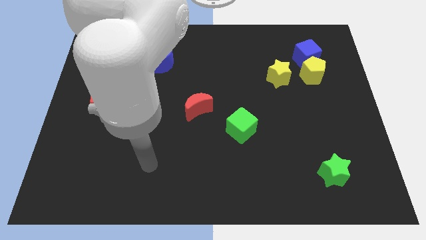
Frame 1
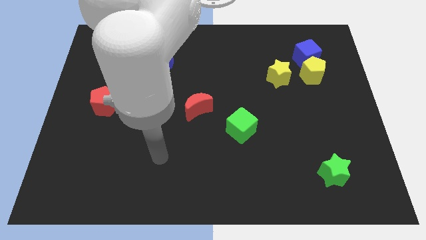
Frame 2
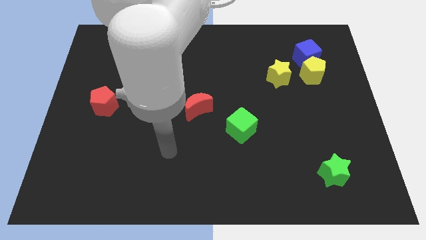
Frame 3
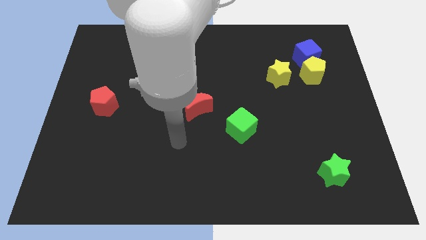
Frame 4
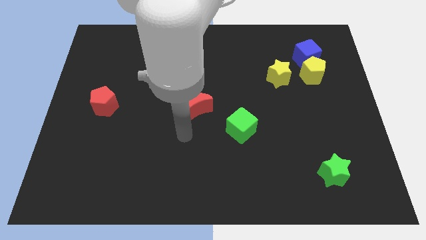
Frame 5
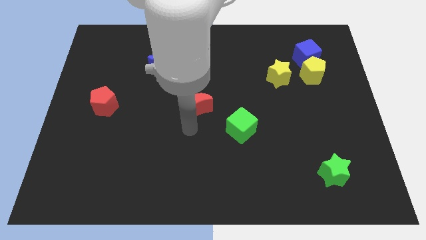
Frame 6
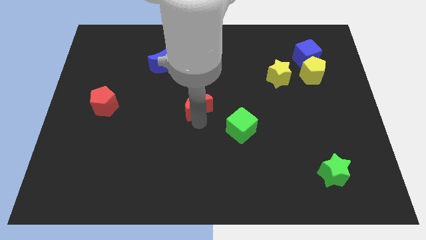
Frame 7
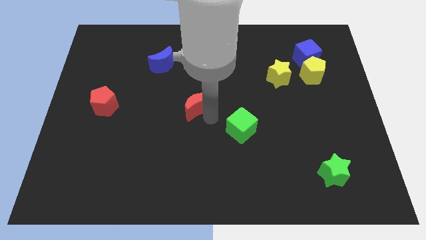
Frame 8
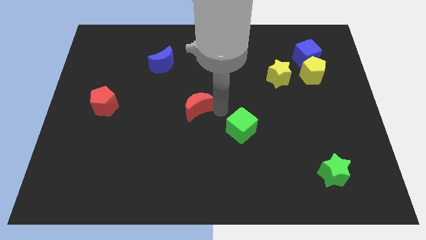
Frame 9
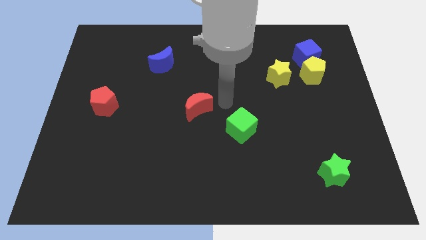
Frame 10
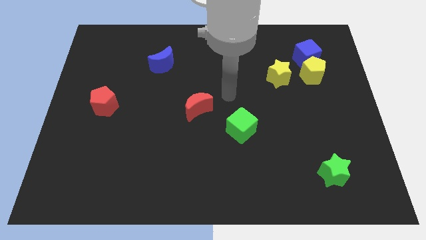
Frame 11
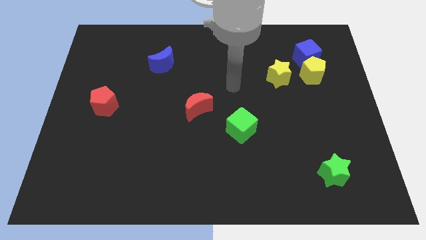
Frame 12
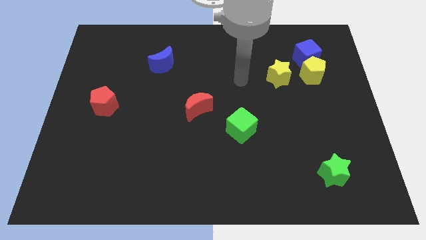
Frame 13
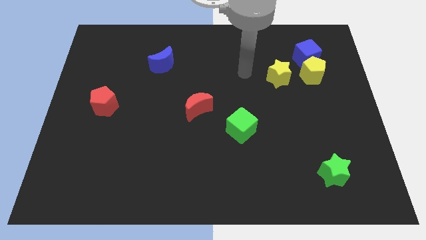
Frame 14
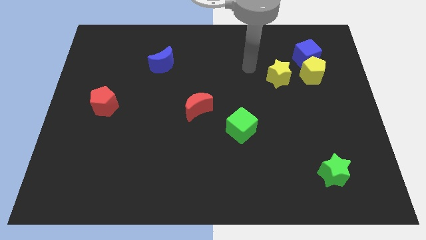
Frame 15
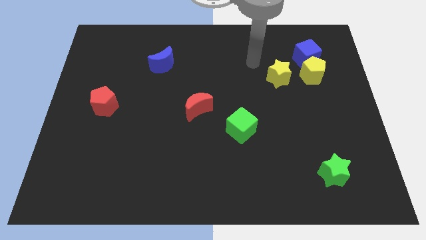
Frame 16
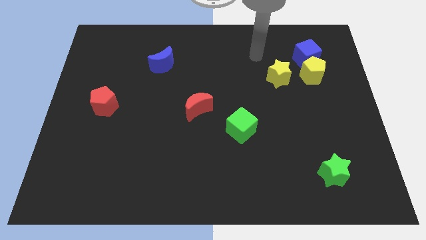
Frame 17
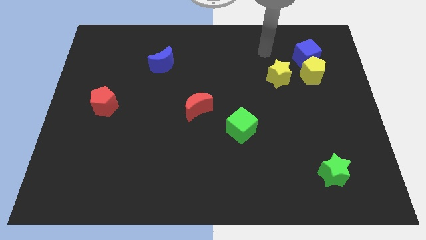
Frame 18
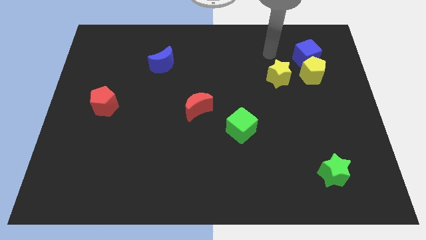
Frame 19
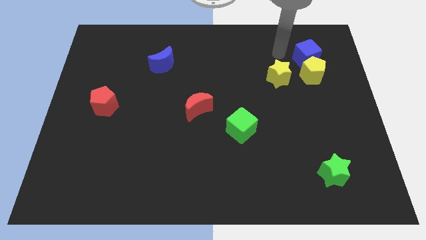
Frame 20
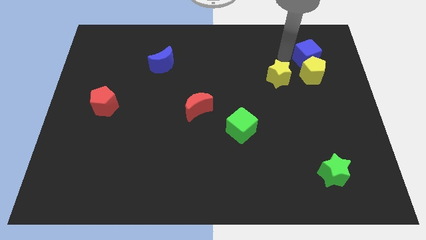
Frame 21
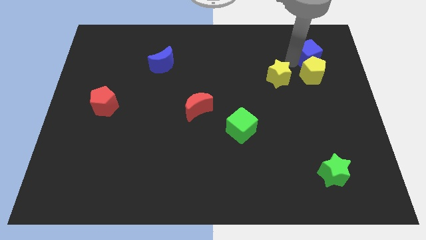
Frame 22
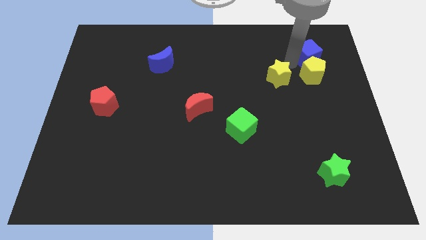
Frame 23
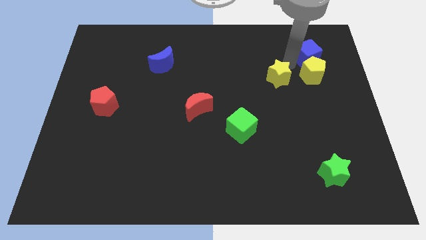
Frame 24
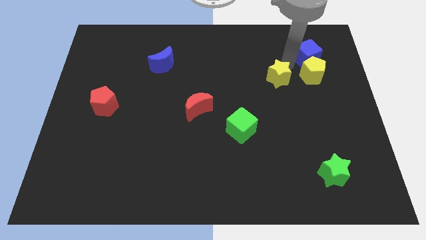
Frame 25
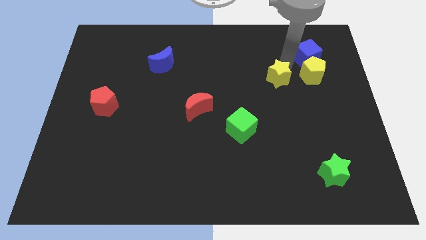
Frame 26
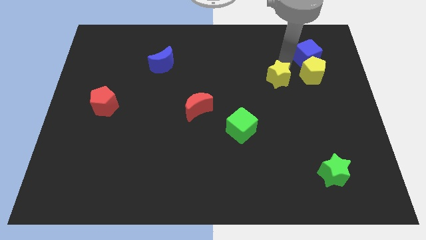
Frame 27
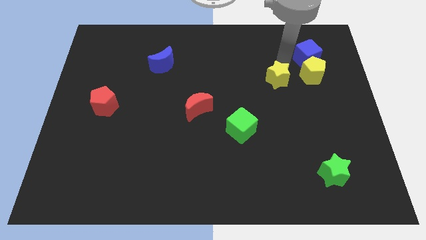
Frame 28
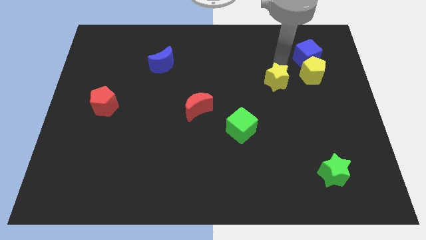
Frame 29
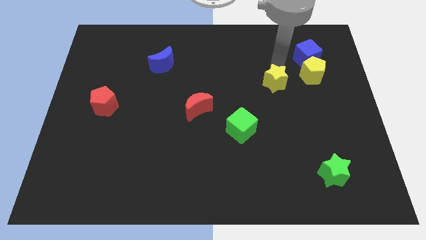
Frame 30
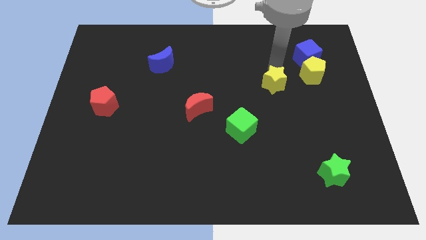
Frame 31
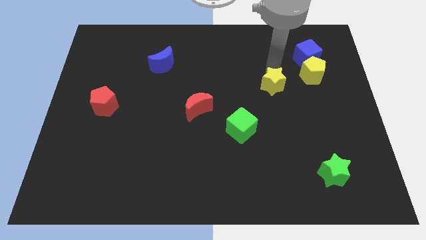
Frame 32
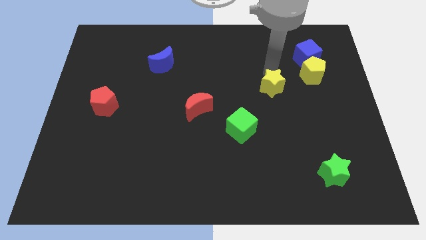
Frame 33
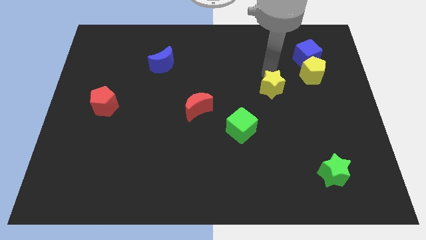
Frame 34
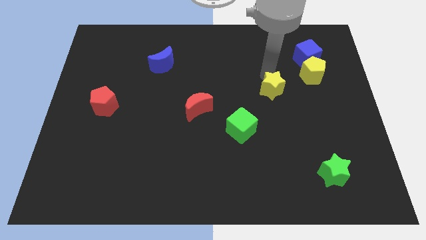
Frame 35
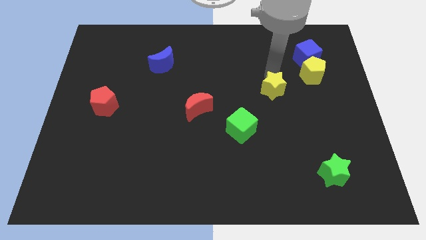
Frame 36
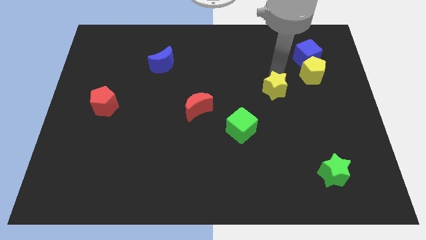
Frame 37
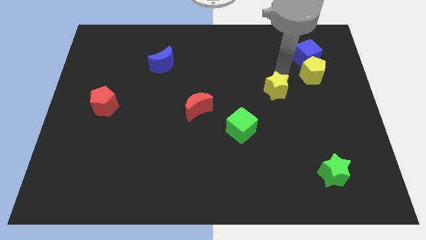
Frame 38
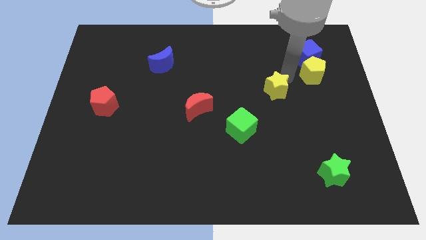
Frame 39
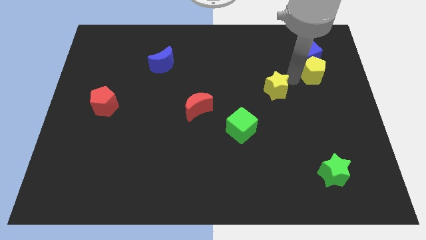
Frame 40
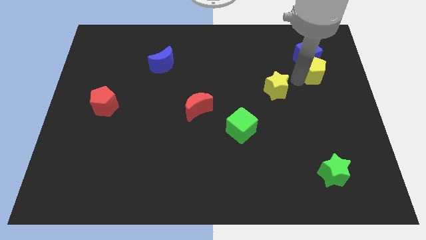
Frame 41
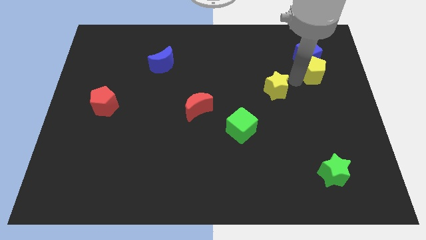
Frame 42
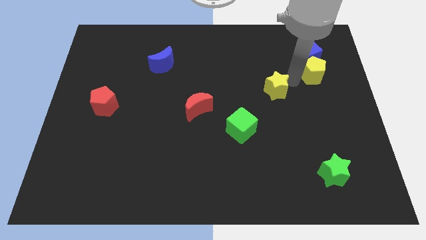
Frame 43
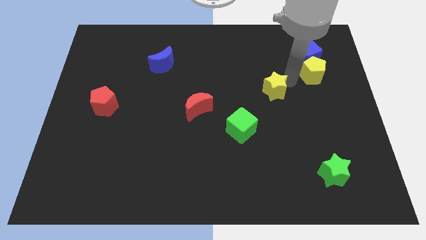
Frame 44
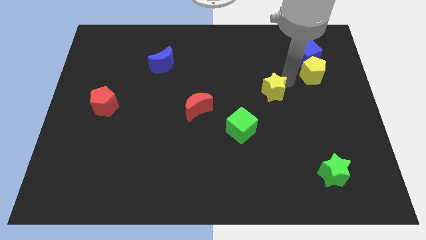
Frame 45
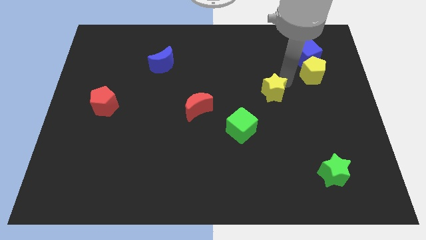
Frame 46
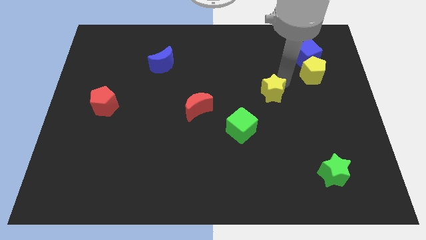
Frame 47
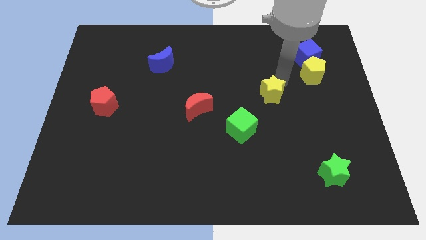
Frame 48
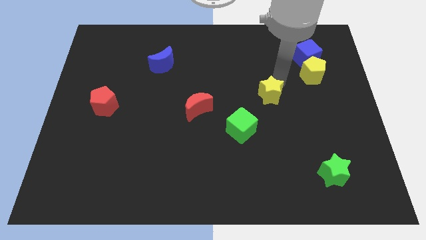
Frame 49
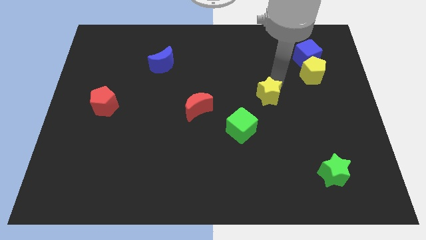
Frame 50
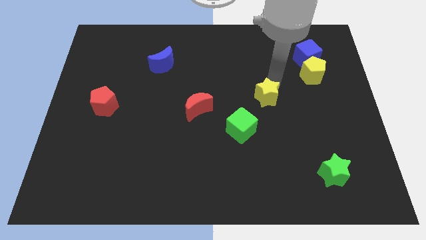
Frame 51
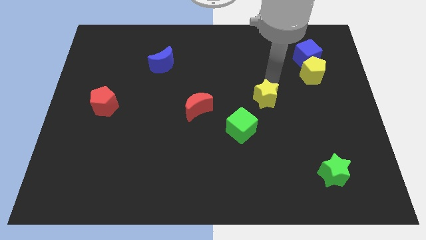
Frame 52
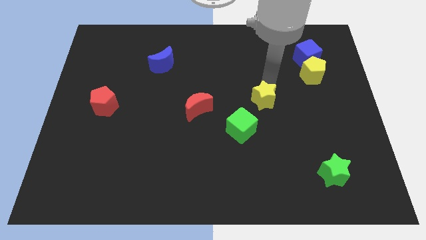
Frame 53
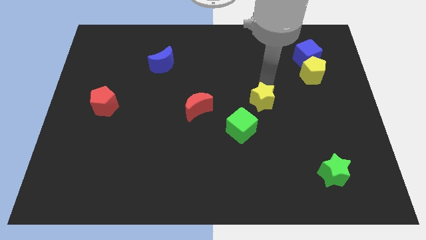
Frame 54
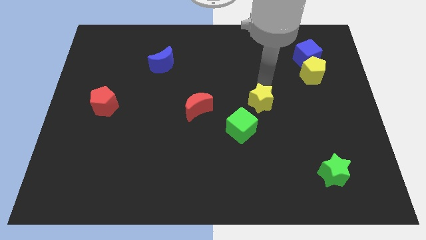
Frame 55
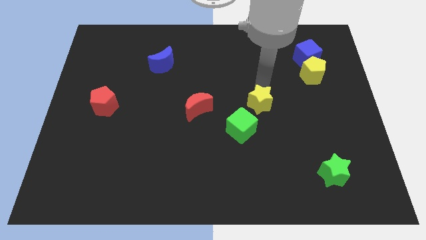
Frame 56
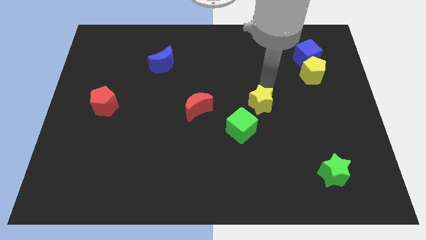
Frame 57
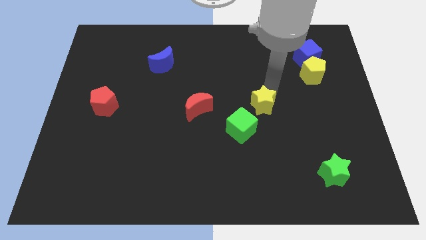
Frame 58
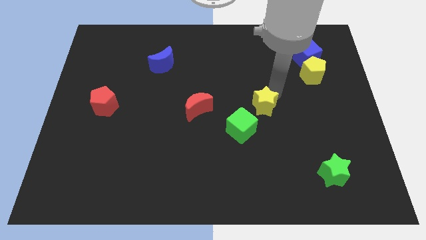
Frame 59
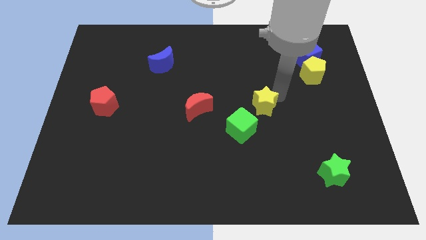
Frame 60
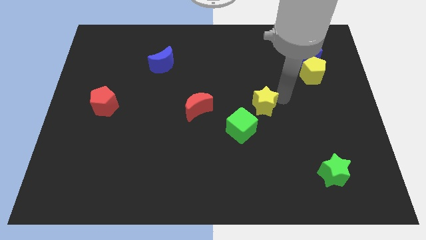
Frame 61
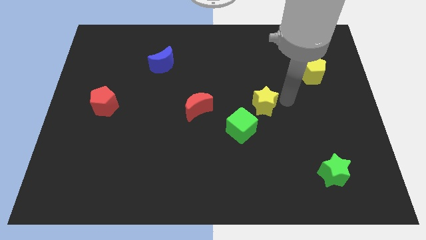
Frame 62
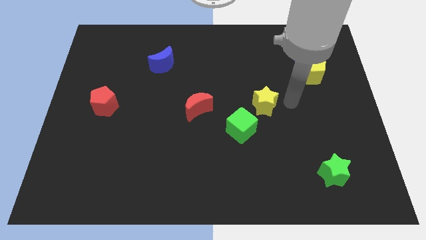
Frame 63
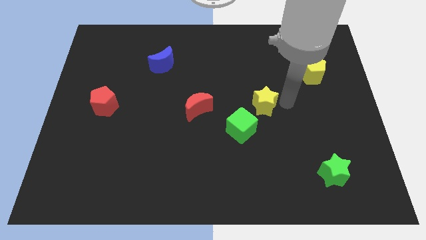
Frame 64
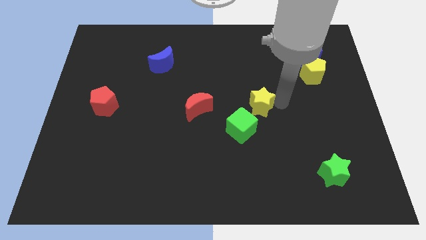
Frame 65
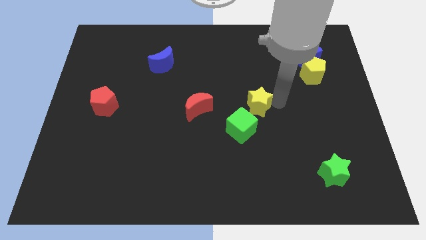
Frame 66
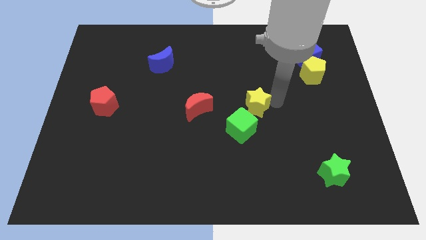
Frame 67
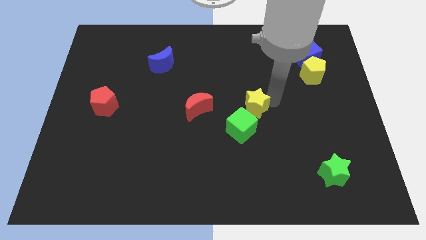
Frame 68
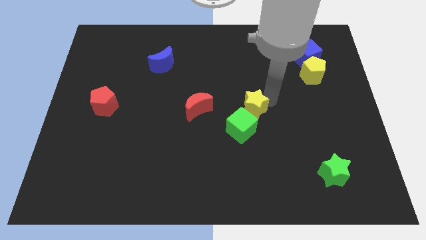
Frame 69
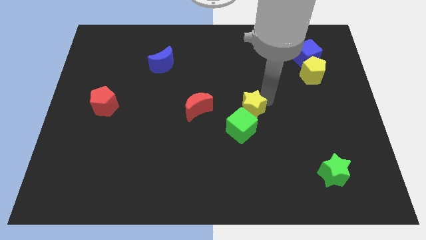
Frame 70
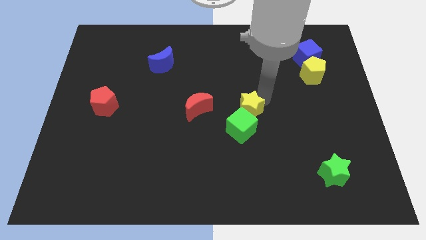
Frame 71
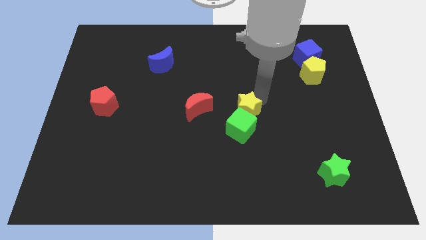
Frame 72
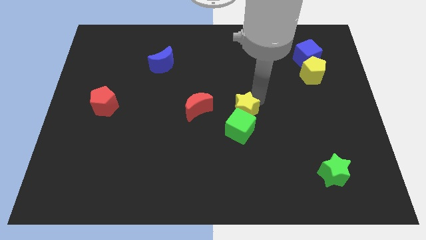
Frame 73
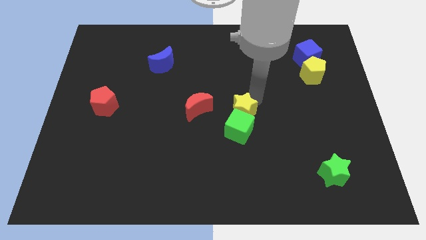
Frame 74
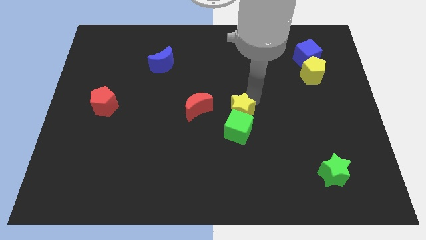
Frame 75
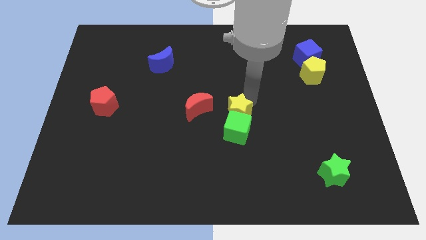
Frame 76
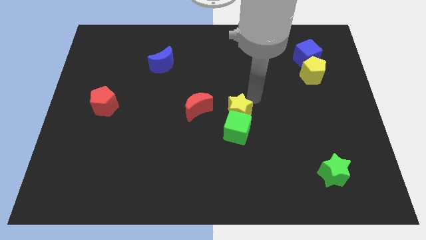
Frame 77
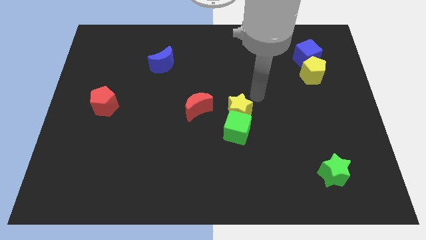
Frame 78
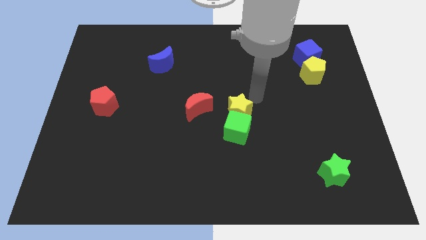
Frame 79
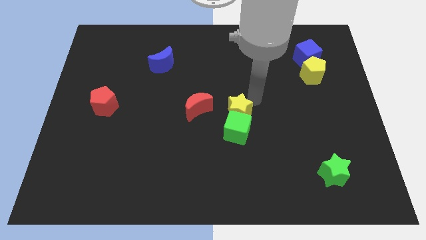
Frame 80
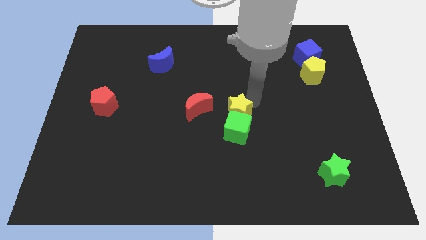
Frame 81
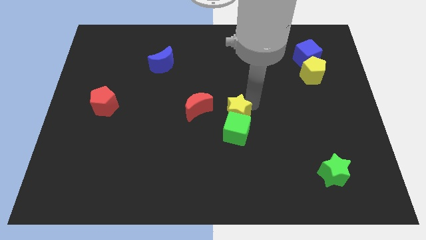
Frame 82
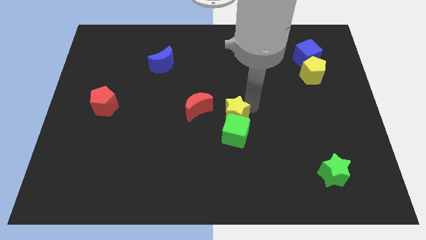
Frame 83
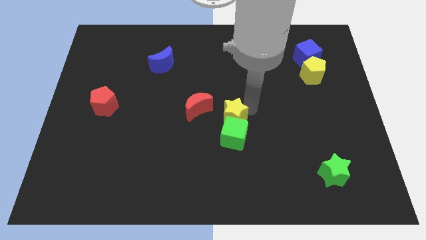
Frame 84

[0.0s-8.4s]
slide the yellow star to the bottom right of the red moon
